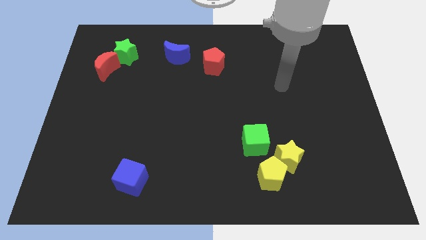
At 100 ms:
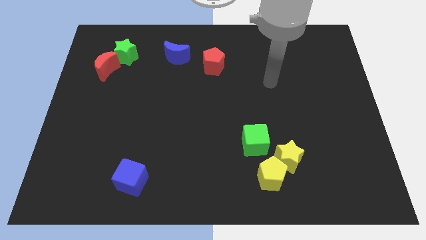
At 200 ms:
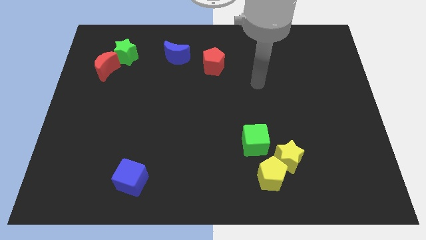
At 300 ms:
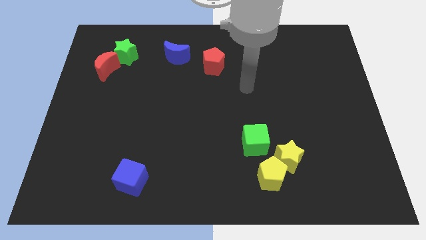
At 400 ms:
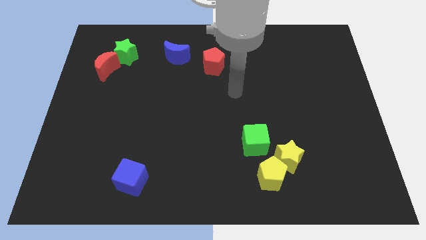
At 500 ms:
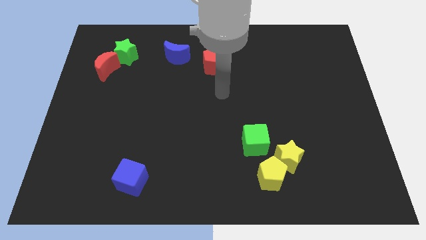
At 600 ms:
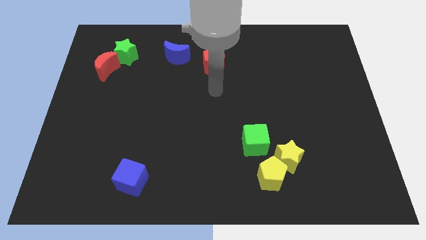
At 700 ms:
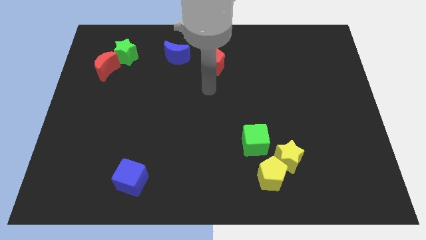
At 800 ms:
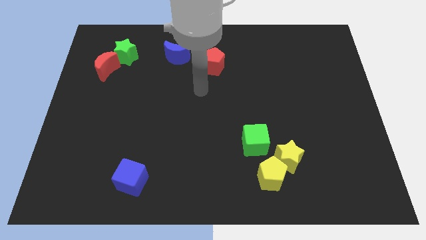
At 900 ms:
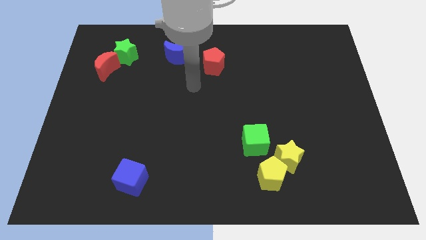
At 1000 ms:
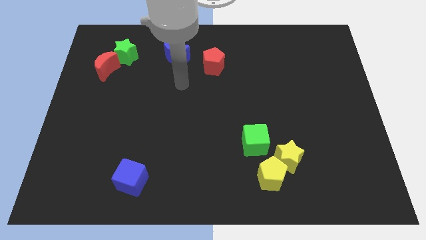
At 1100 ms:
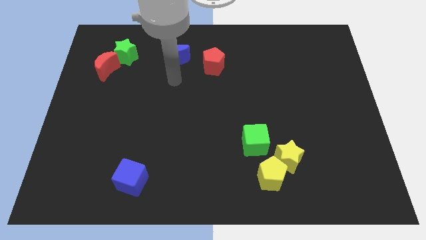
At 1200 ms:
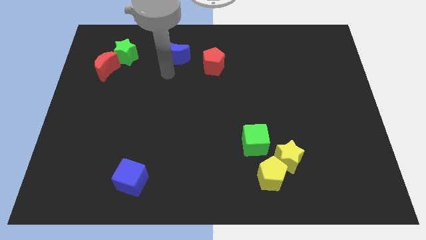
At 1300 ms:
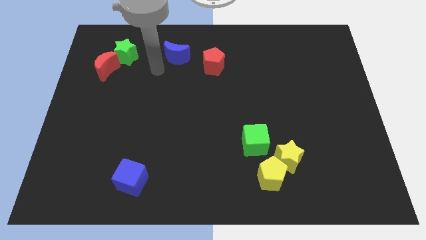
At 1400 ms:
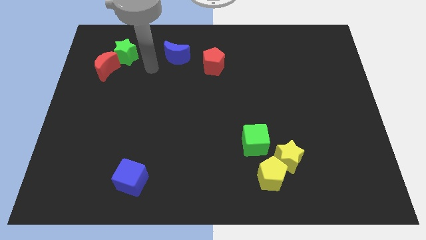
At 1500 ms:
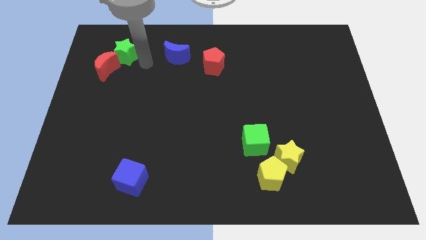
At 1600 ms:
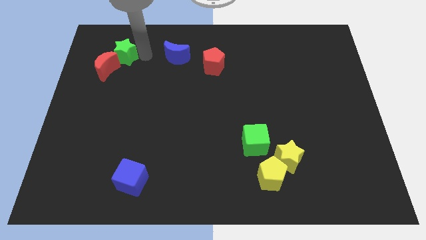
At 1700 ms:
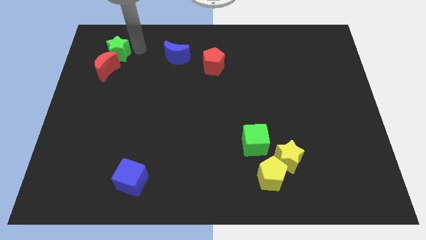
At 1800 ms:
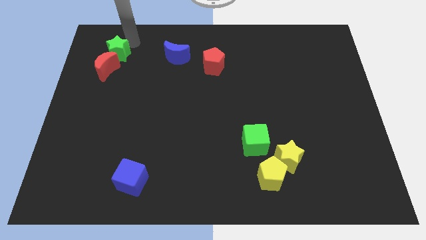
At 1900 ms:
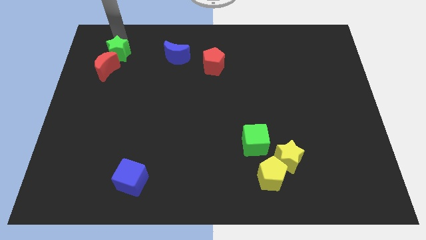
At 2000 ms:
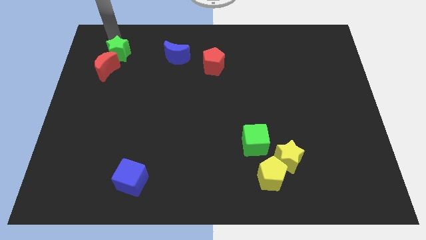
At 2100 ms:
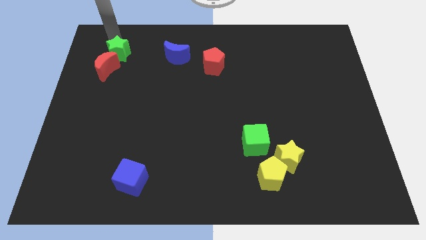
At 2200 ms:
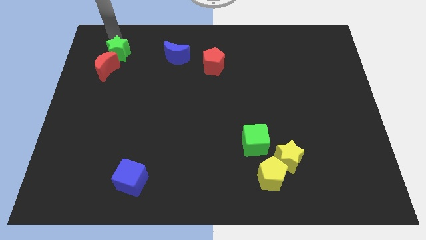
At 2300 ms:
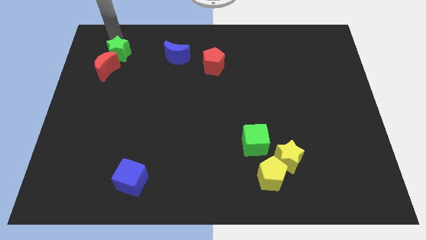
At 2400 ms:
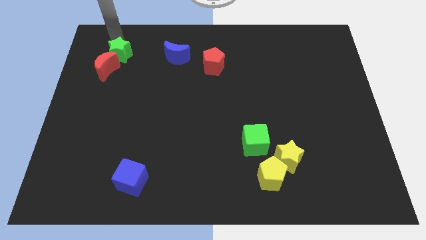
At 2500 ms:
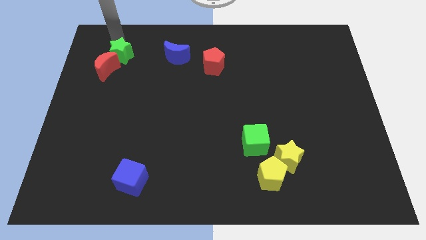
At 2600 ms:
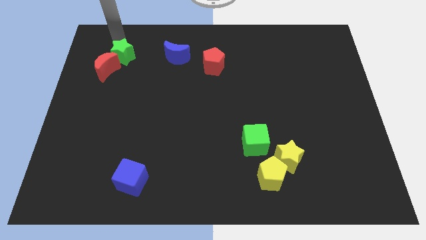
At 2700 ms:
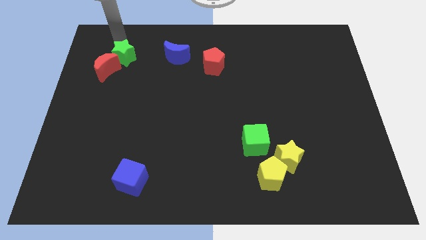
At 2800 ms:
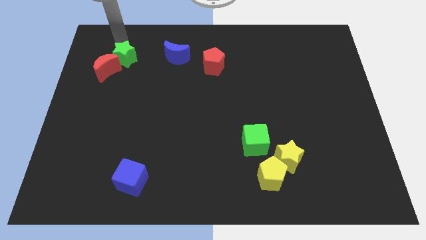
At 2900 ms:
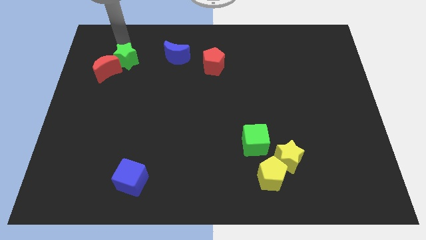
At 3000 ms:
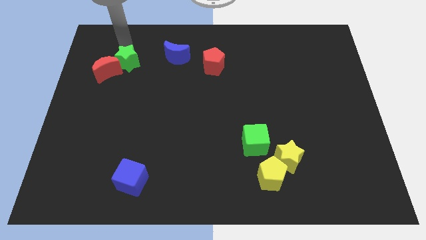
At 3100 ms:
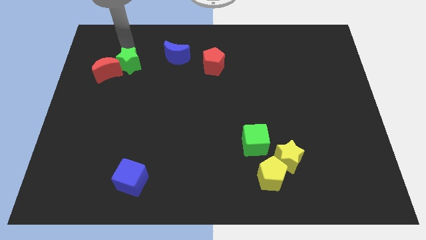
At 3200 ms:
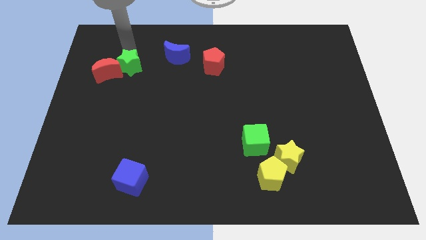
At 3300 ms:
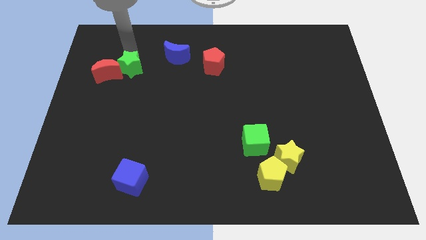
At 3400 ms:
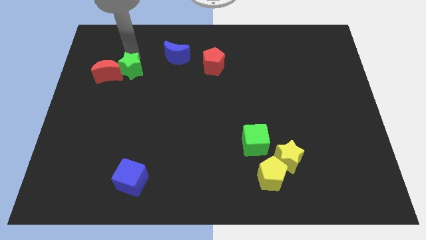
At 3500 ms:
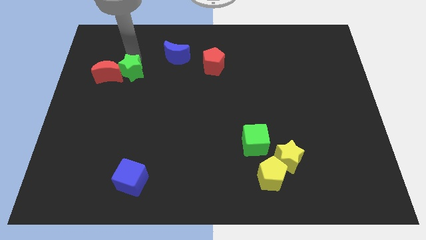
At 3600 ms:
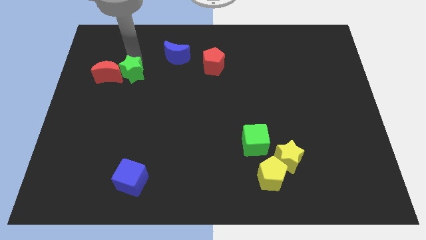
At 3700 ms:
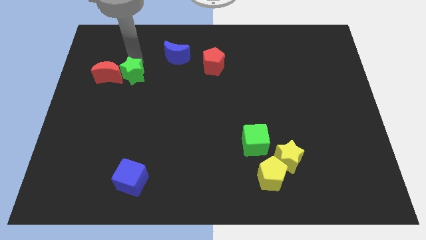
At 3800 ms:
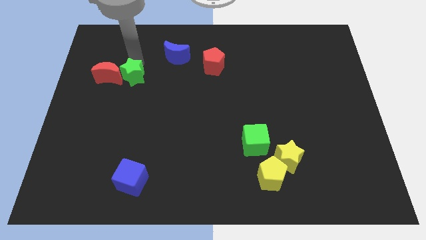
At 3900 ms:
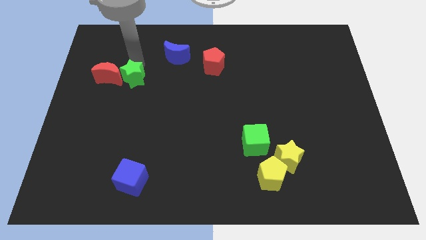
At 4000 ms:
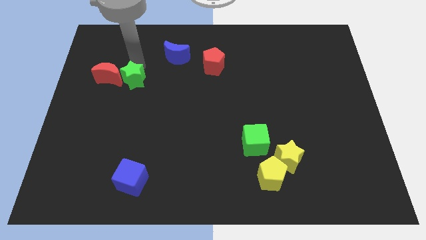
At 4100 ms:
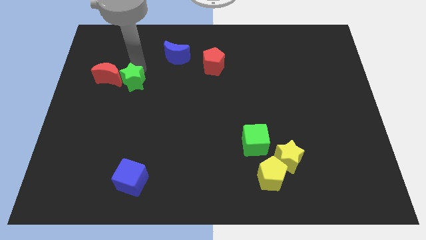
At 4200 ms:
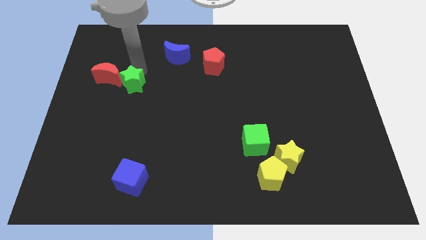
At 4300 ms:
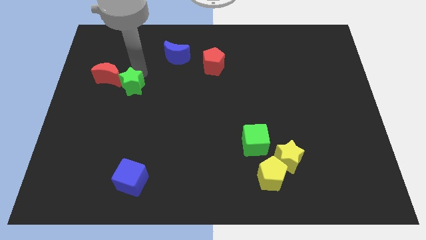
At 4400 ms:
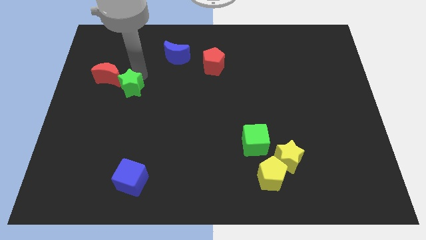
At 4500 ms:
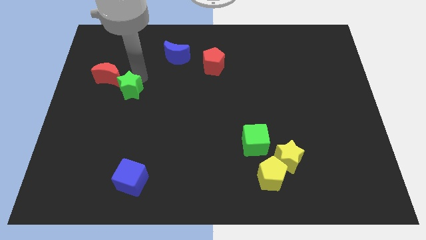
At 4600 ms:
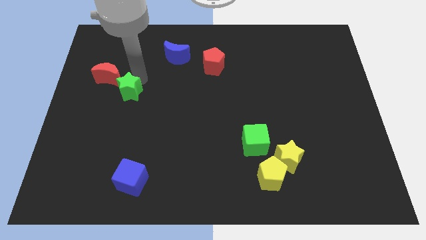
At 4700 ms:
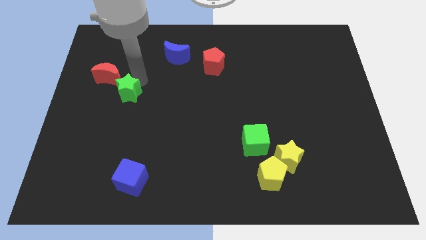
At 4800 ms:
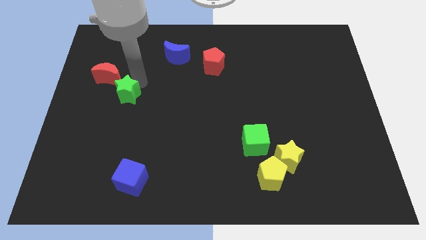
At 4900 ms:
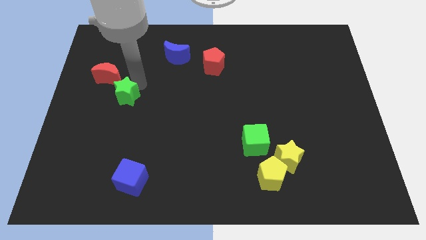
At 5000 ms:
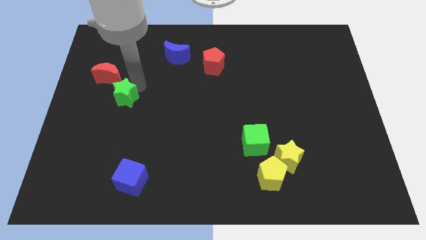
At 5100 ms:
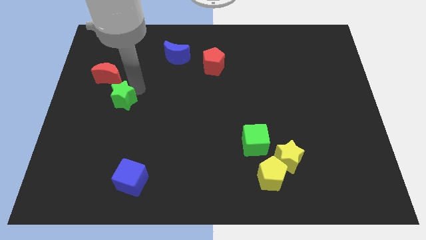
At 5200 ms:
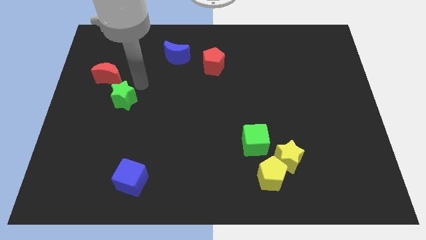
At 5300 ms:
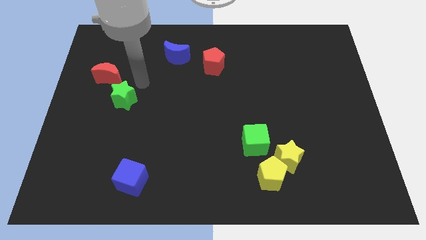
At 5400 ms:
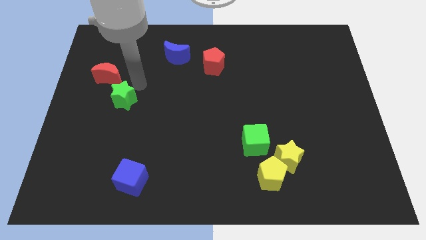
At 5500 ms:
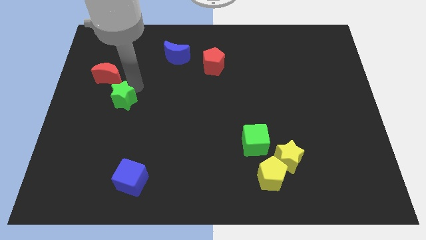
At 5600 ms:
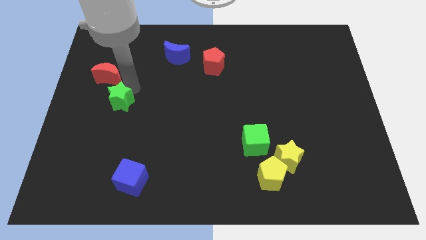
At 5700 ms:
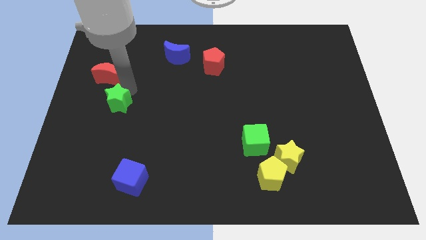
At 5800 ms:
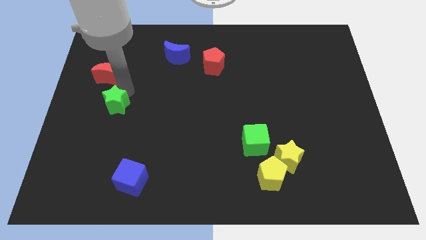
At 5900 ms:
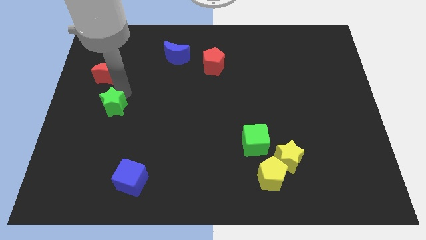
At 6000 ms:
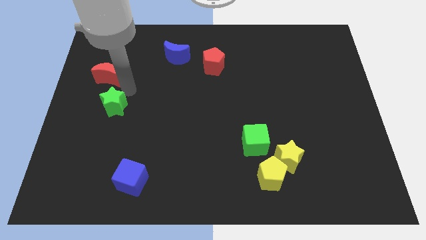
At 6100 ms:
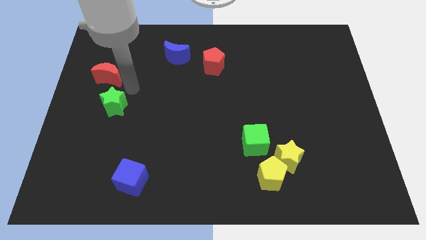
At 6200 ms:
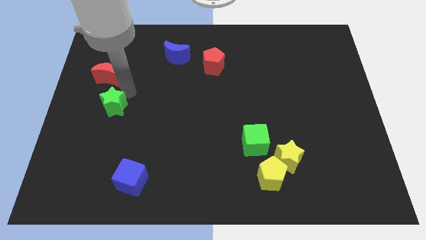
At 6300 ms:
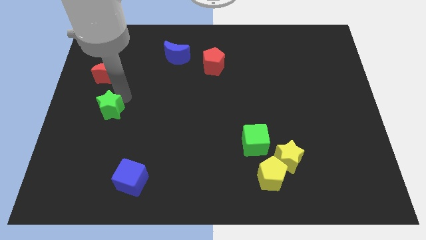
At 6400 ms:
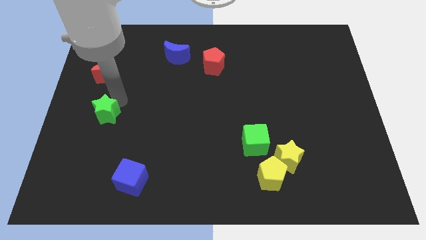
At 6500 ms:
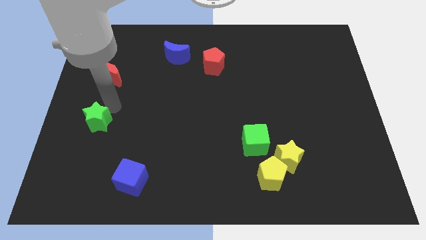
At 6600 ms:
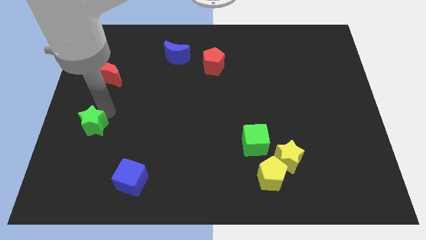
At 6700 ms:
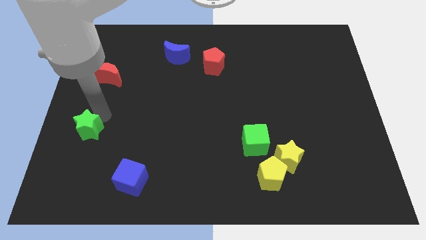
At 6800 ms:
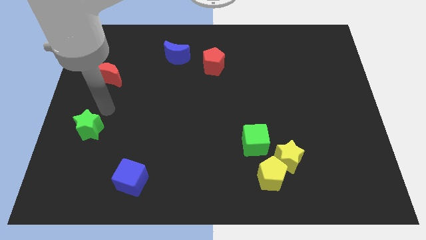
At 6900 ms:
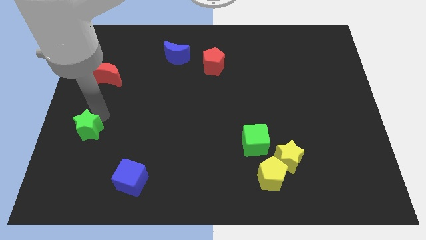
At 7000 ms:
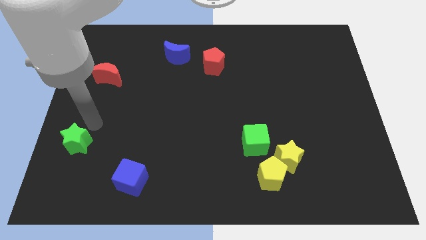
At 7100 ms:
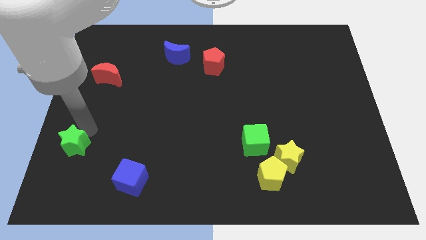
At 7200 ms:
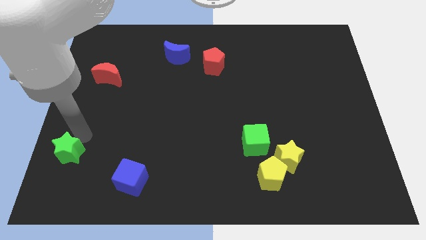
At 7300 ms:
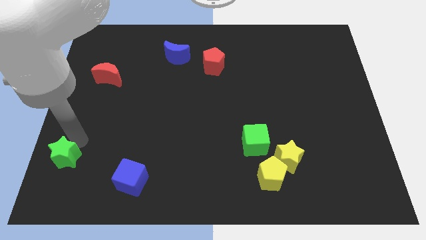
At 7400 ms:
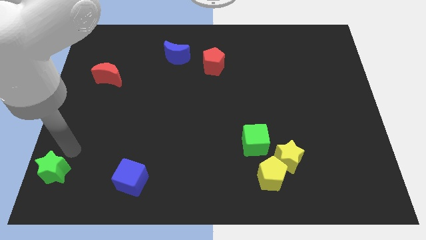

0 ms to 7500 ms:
move the green star to the bottom left
